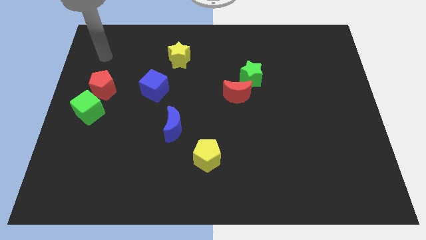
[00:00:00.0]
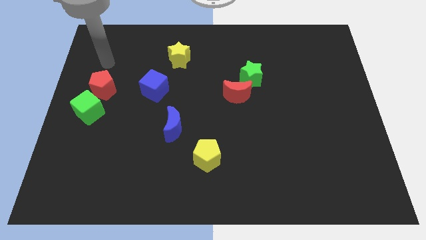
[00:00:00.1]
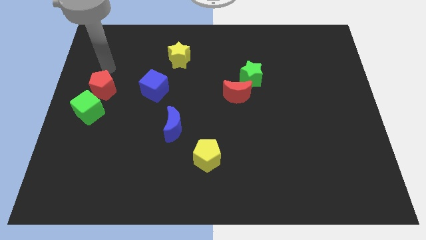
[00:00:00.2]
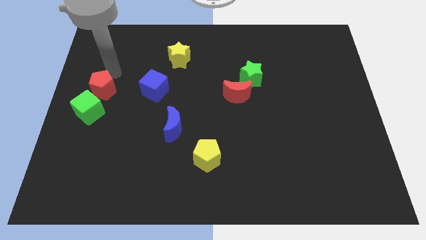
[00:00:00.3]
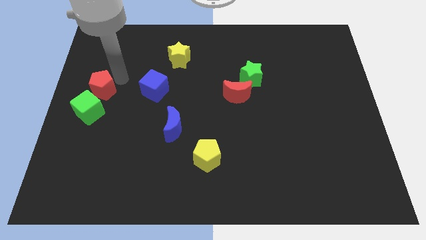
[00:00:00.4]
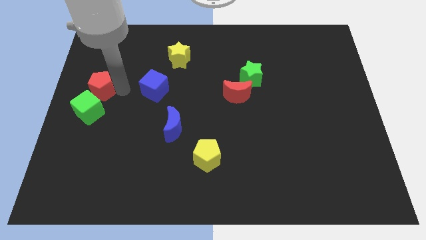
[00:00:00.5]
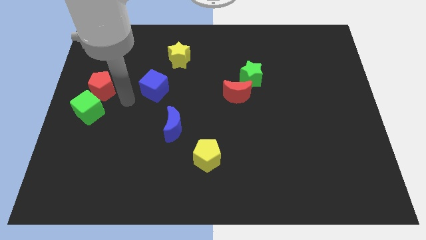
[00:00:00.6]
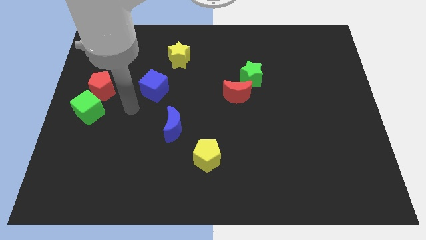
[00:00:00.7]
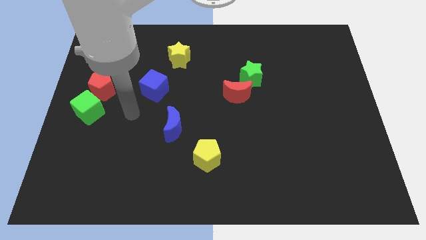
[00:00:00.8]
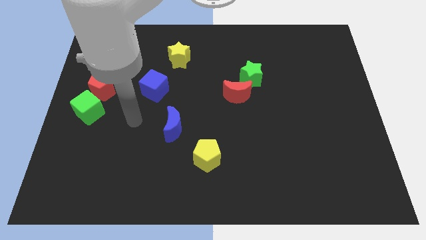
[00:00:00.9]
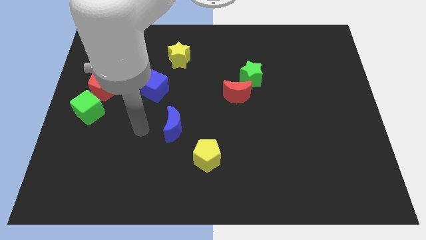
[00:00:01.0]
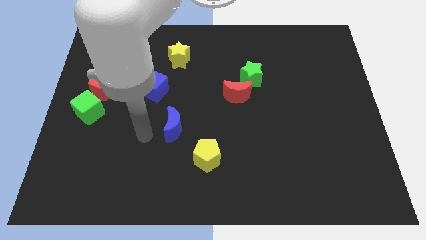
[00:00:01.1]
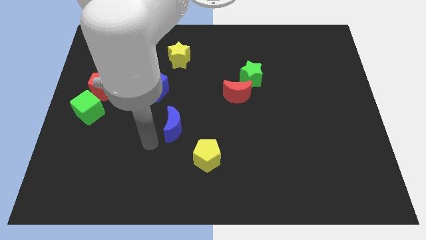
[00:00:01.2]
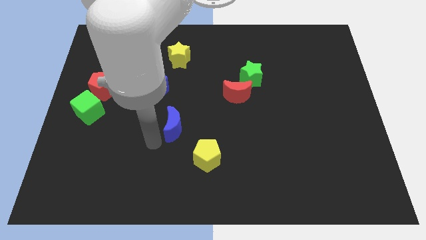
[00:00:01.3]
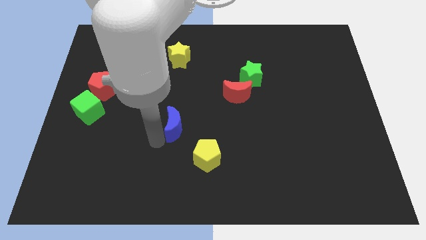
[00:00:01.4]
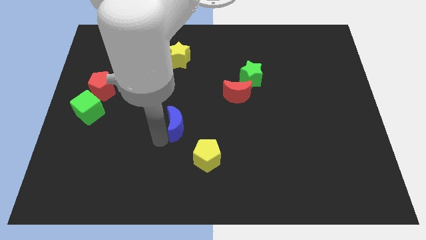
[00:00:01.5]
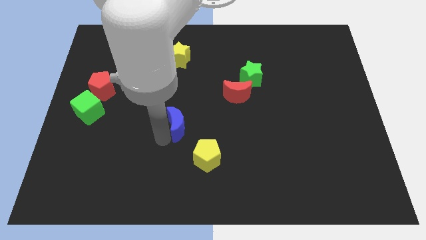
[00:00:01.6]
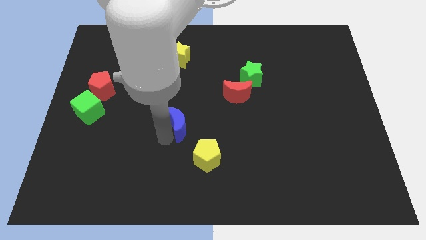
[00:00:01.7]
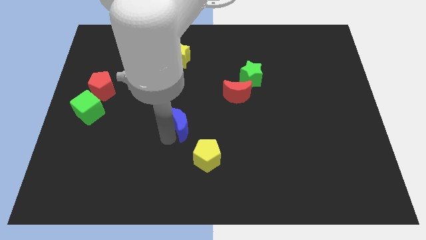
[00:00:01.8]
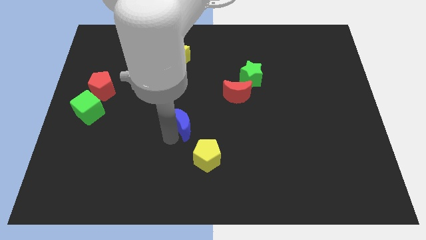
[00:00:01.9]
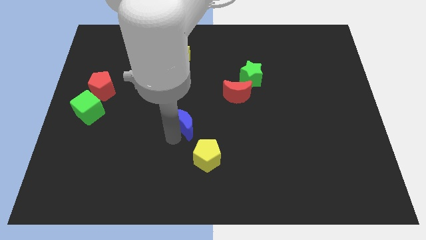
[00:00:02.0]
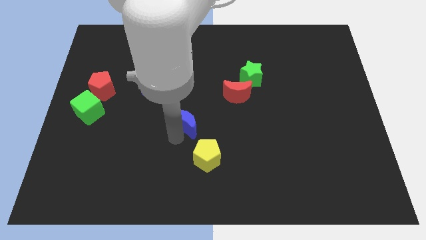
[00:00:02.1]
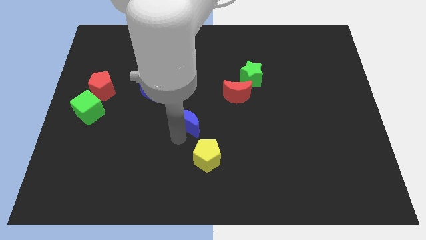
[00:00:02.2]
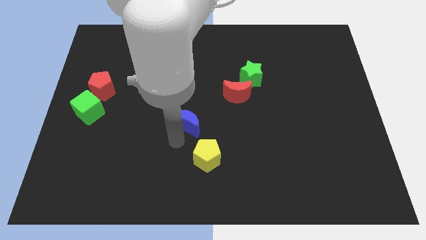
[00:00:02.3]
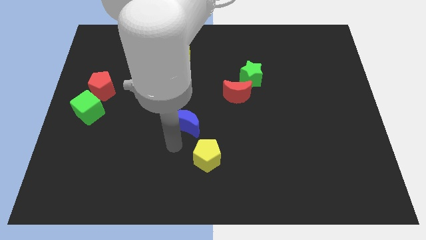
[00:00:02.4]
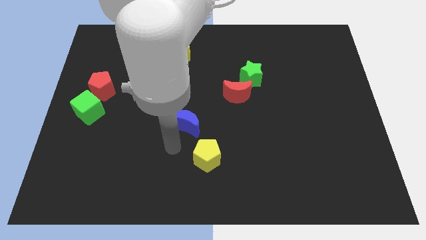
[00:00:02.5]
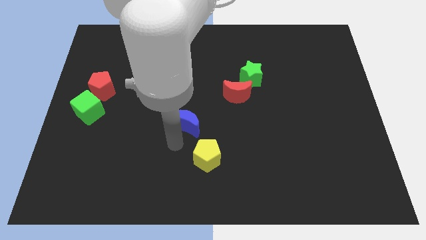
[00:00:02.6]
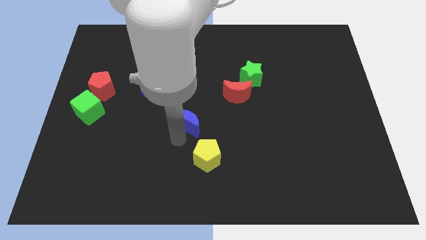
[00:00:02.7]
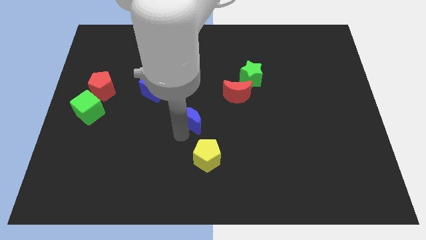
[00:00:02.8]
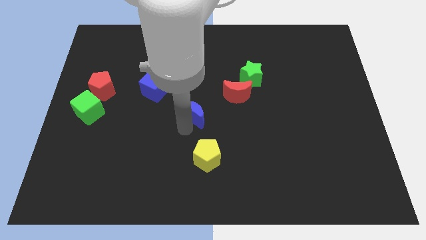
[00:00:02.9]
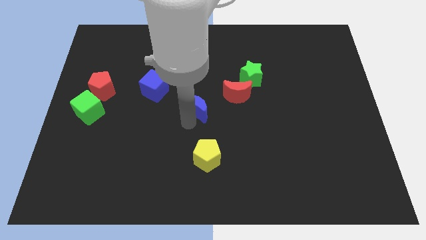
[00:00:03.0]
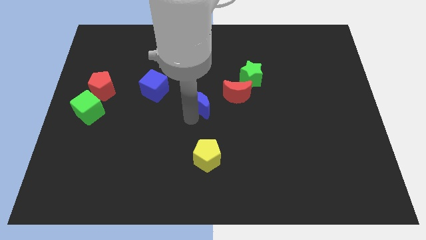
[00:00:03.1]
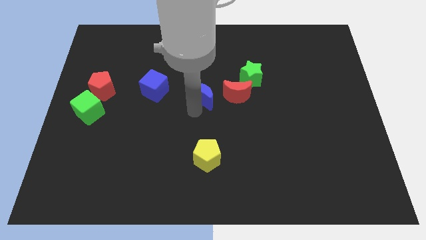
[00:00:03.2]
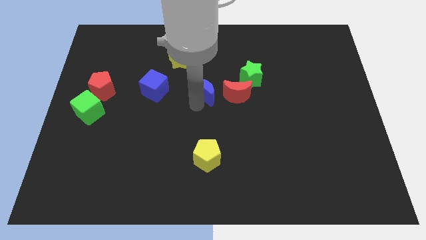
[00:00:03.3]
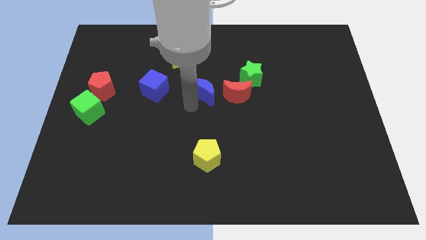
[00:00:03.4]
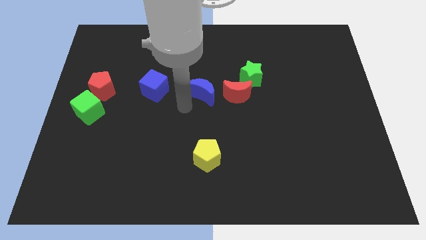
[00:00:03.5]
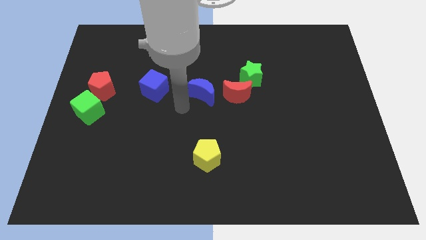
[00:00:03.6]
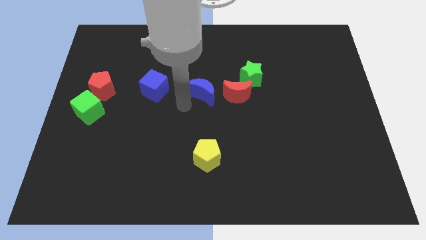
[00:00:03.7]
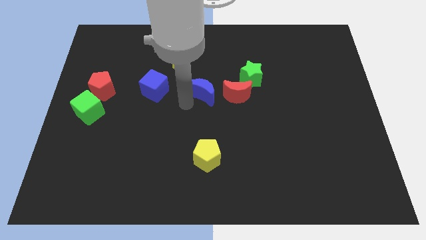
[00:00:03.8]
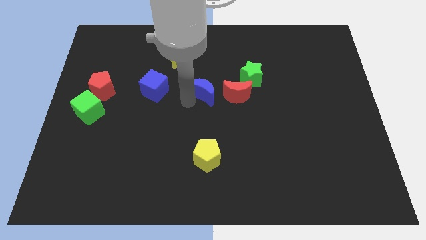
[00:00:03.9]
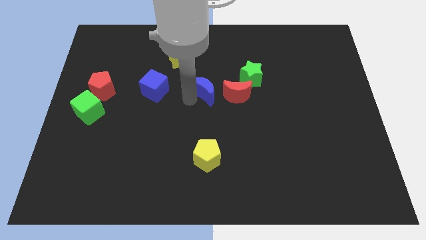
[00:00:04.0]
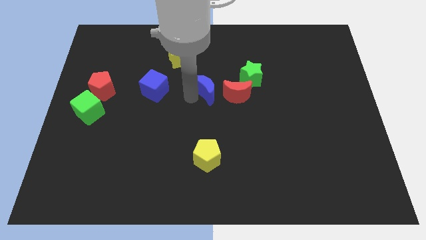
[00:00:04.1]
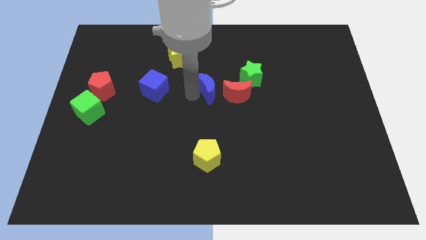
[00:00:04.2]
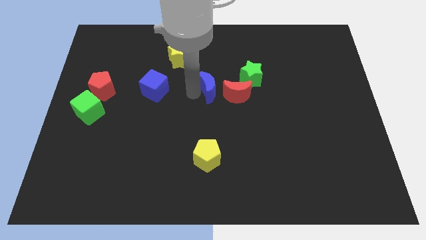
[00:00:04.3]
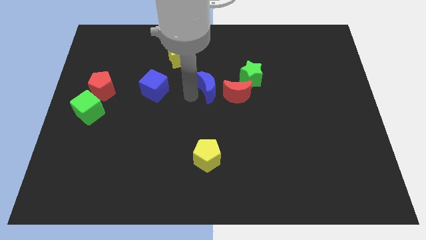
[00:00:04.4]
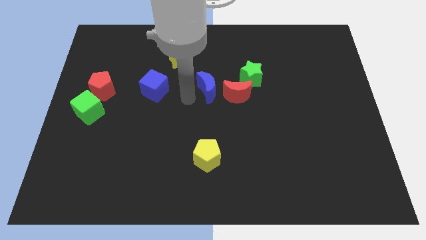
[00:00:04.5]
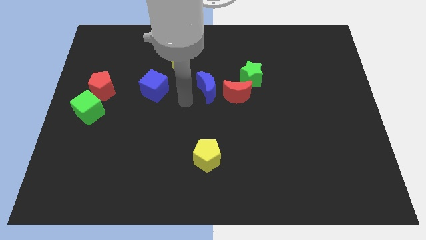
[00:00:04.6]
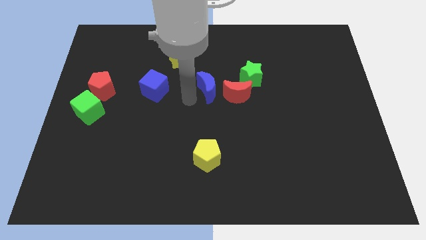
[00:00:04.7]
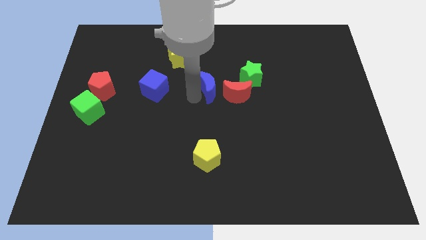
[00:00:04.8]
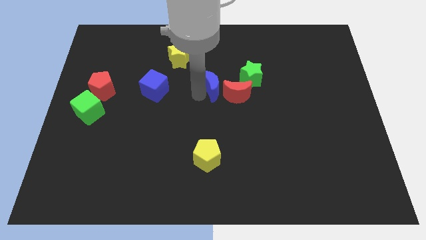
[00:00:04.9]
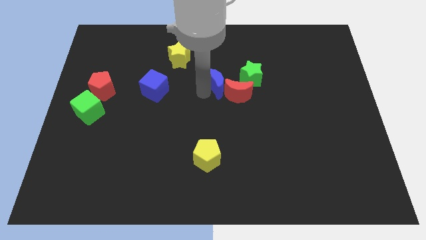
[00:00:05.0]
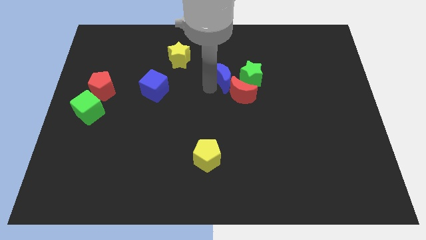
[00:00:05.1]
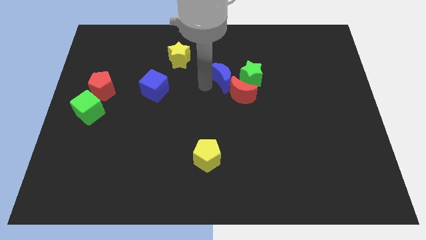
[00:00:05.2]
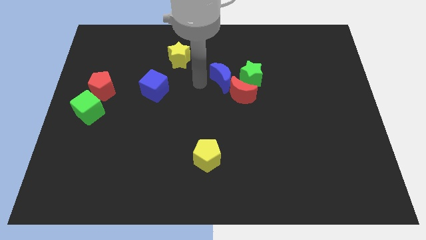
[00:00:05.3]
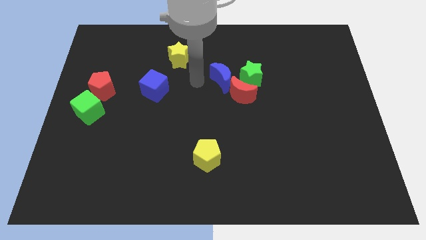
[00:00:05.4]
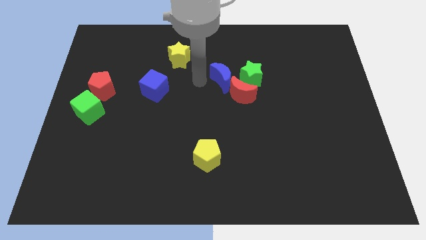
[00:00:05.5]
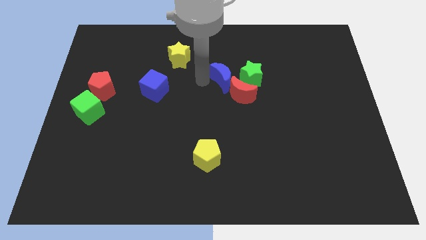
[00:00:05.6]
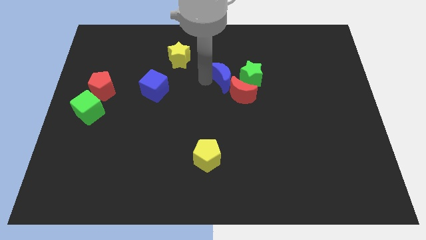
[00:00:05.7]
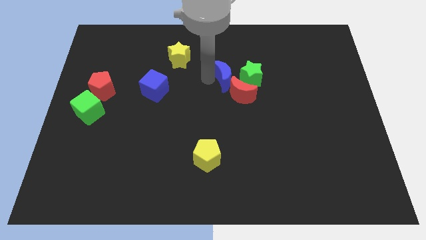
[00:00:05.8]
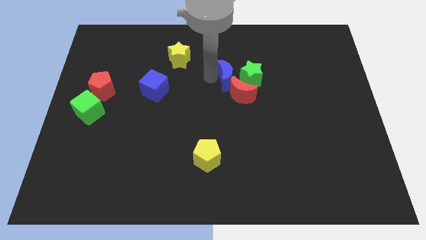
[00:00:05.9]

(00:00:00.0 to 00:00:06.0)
push the blue moon next to the green star

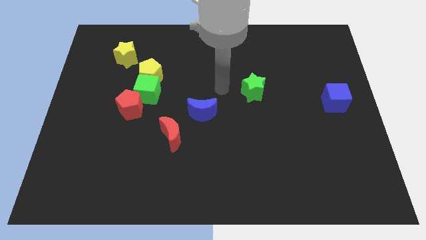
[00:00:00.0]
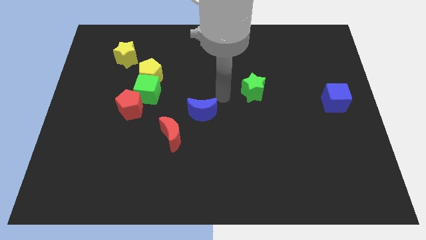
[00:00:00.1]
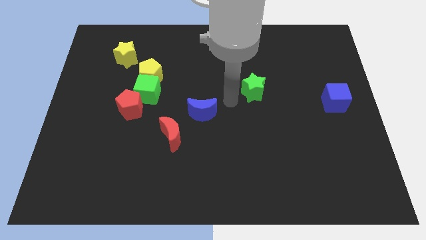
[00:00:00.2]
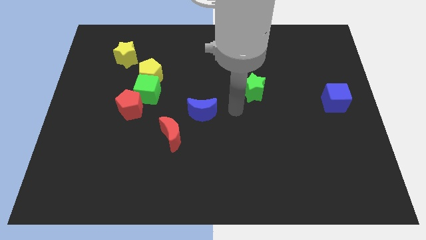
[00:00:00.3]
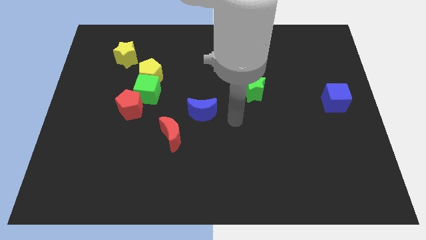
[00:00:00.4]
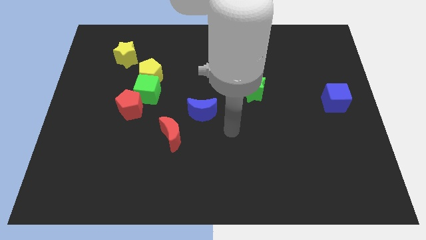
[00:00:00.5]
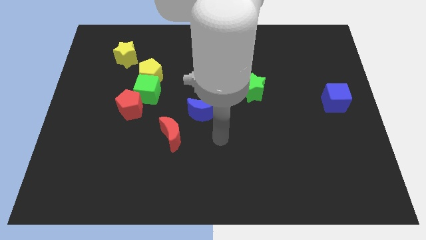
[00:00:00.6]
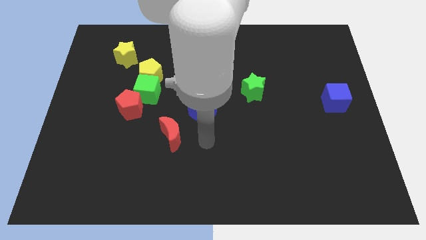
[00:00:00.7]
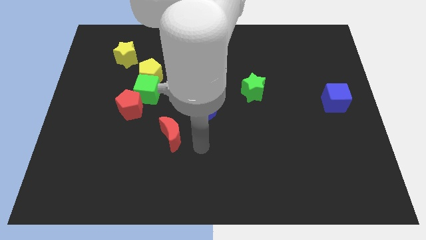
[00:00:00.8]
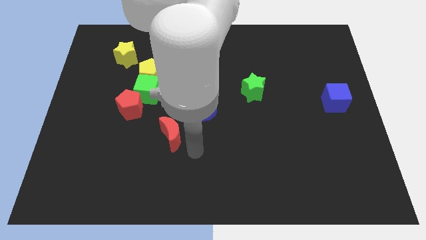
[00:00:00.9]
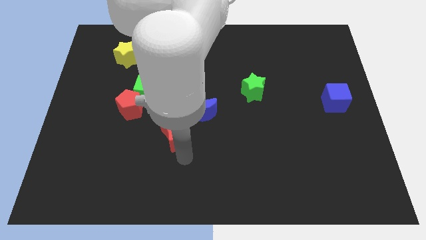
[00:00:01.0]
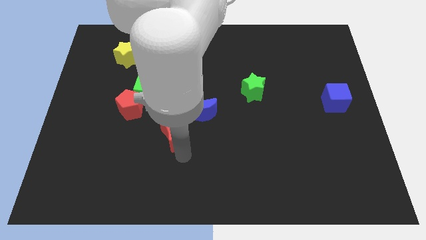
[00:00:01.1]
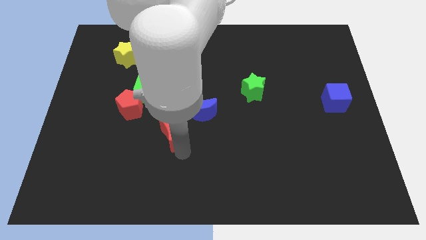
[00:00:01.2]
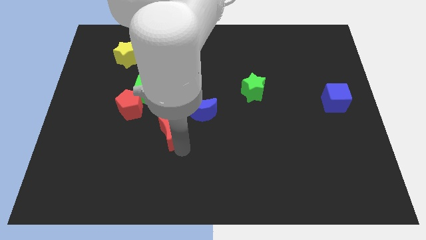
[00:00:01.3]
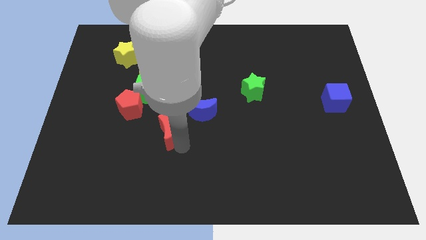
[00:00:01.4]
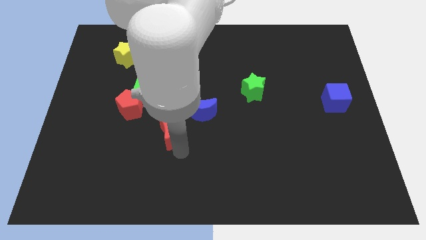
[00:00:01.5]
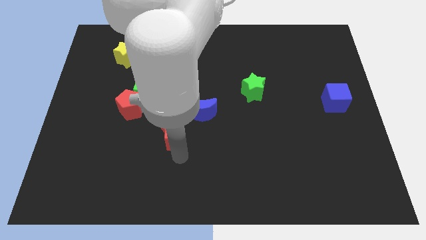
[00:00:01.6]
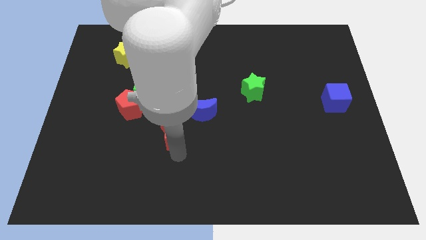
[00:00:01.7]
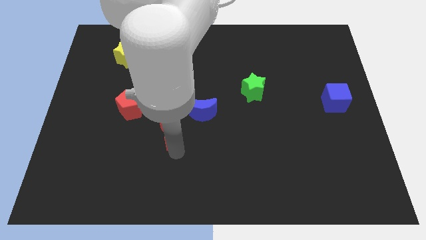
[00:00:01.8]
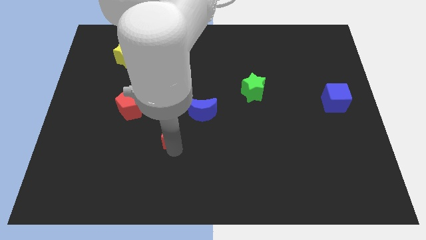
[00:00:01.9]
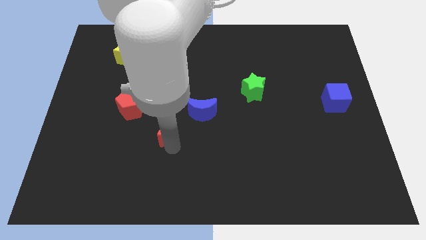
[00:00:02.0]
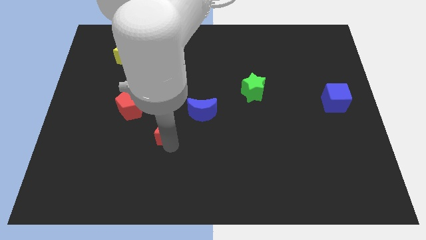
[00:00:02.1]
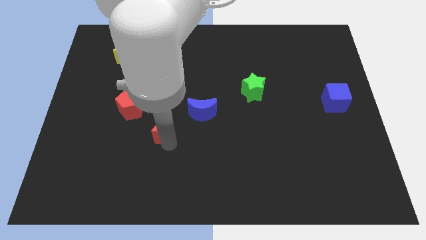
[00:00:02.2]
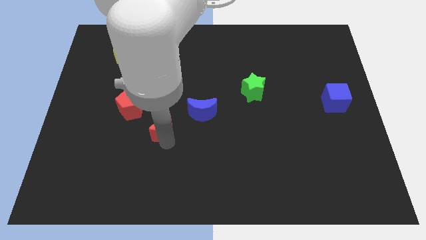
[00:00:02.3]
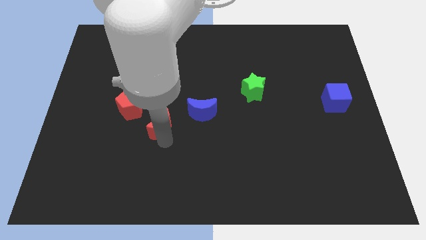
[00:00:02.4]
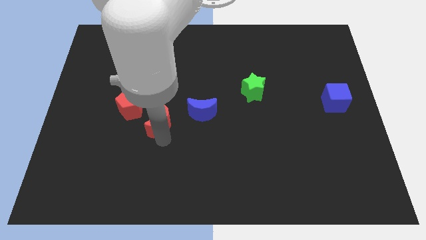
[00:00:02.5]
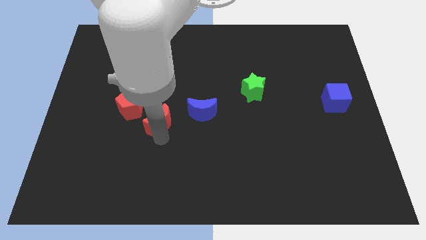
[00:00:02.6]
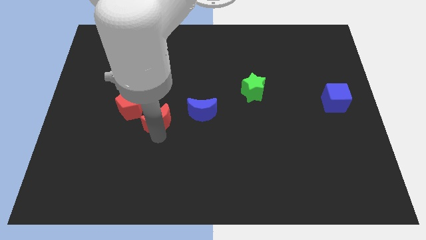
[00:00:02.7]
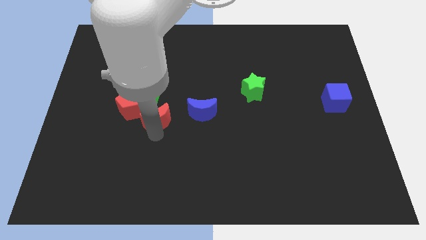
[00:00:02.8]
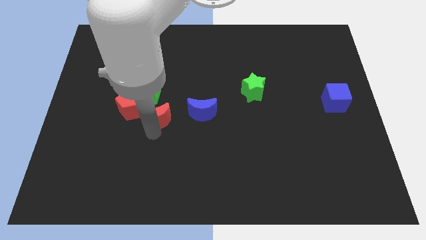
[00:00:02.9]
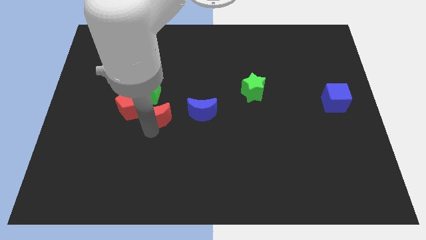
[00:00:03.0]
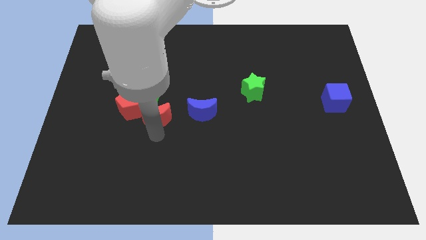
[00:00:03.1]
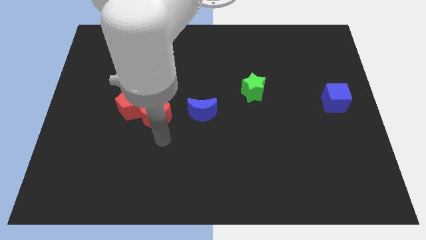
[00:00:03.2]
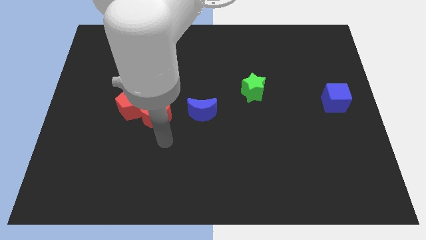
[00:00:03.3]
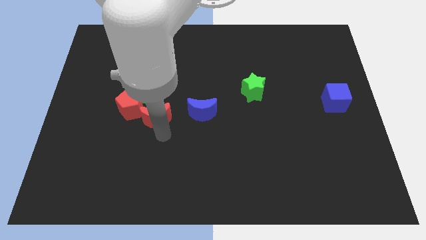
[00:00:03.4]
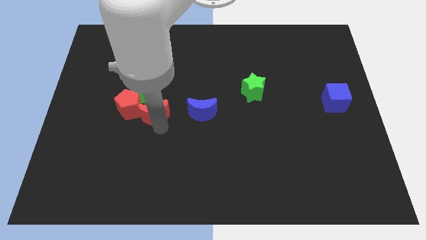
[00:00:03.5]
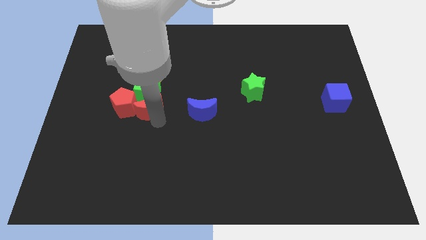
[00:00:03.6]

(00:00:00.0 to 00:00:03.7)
slide the red moon towards the green cube
